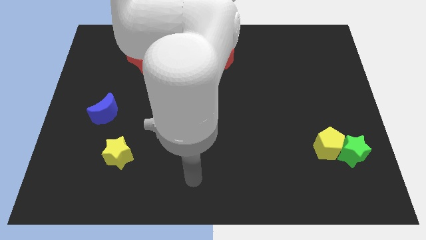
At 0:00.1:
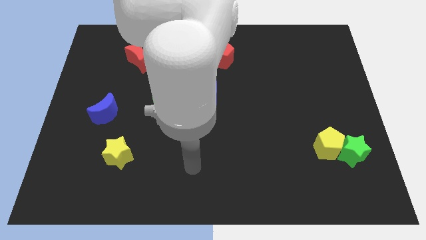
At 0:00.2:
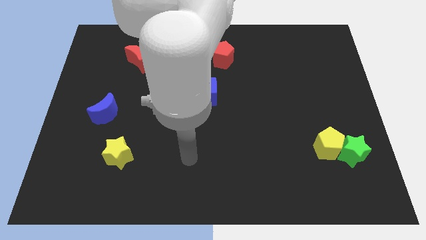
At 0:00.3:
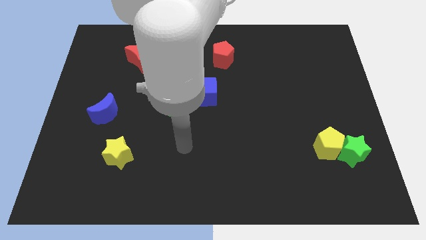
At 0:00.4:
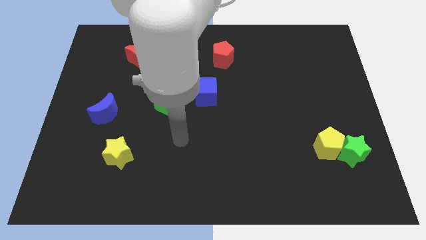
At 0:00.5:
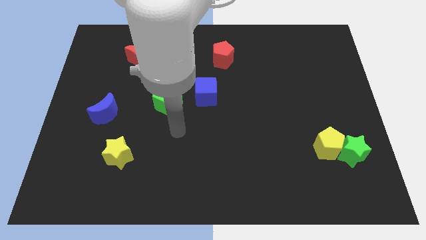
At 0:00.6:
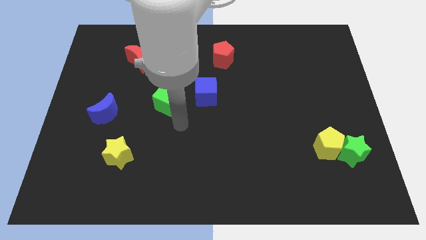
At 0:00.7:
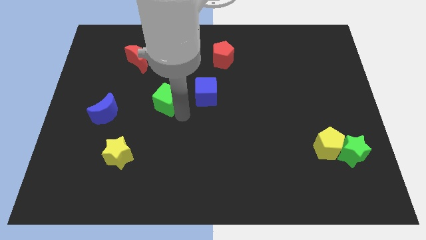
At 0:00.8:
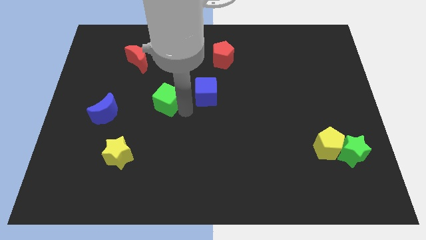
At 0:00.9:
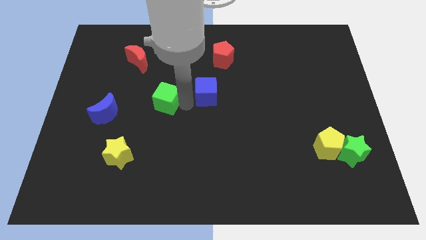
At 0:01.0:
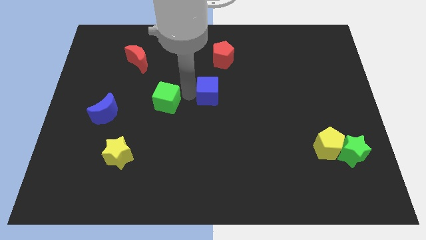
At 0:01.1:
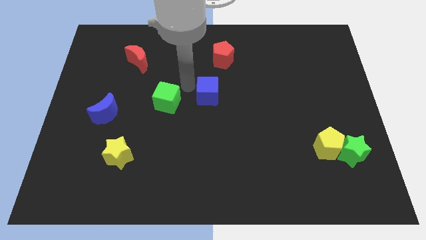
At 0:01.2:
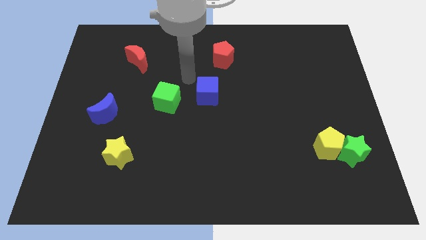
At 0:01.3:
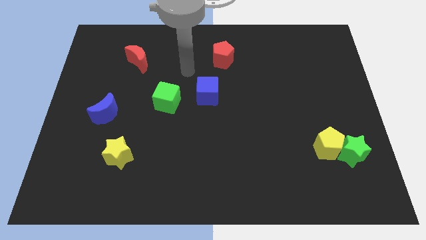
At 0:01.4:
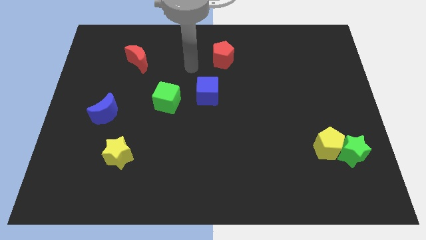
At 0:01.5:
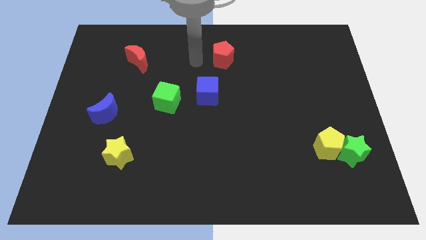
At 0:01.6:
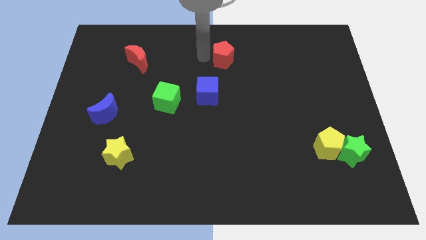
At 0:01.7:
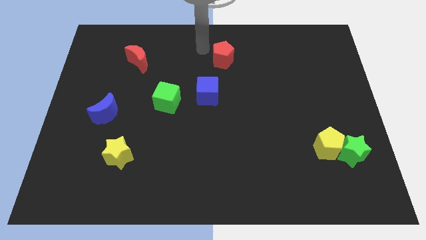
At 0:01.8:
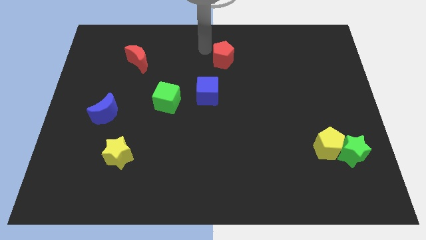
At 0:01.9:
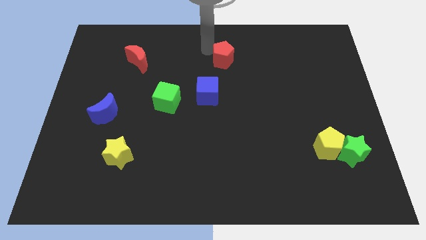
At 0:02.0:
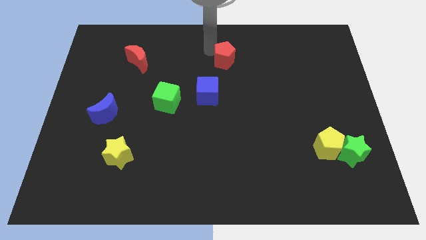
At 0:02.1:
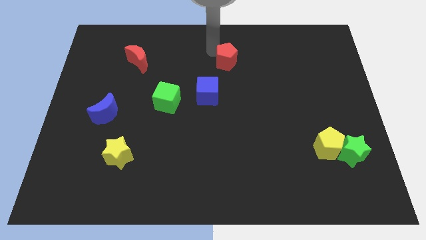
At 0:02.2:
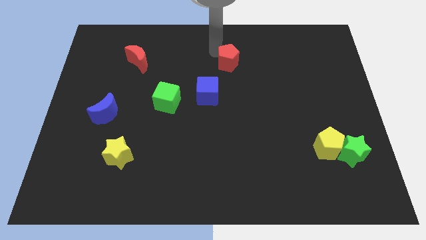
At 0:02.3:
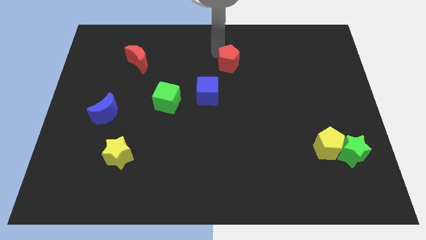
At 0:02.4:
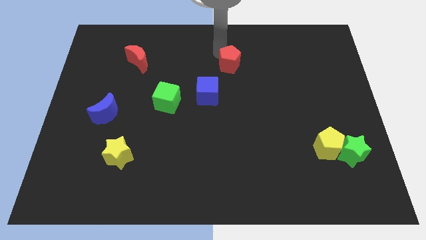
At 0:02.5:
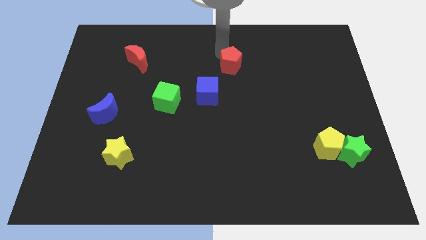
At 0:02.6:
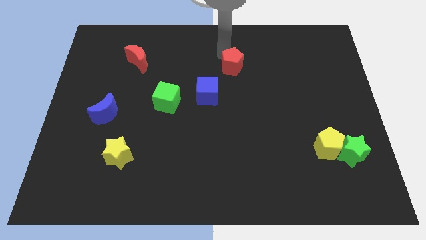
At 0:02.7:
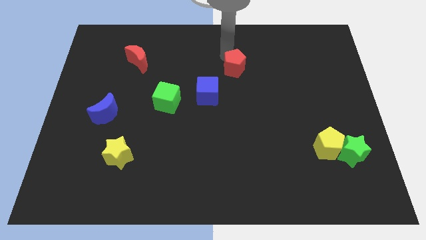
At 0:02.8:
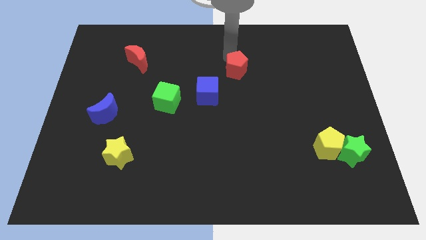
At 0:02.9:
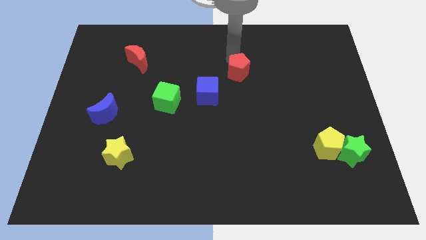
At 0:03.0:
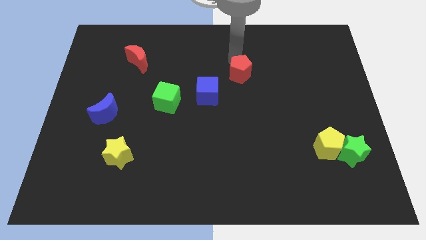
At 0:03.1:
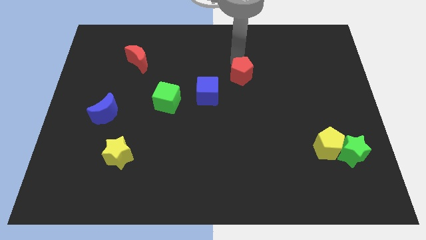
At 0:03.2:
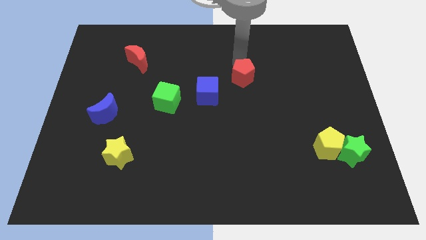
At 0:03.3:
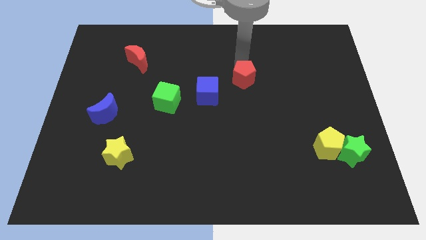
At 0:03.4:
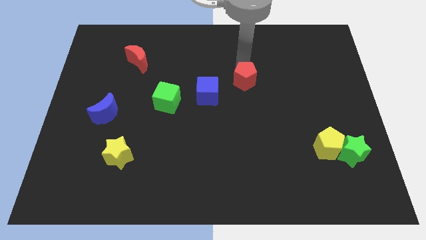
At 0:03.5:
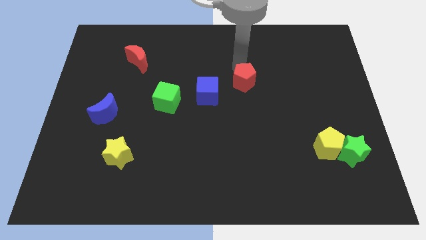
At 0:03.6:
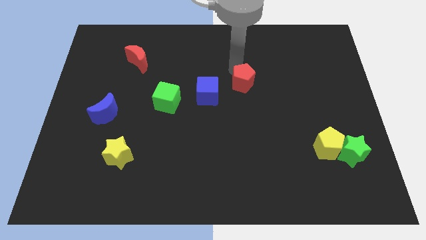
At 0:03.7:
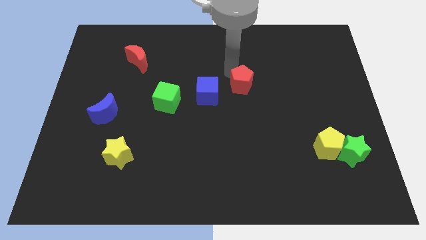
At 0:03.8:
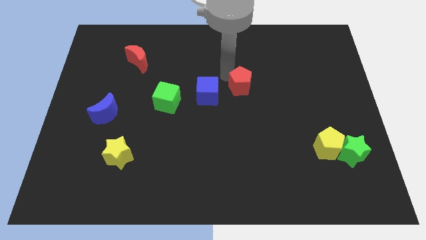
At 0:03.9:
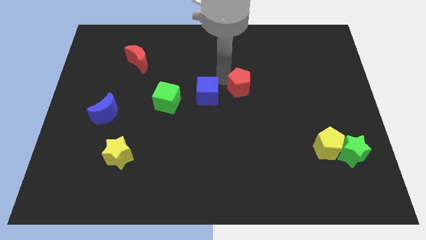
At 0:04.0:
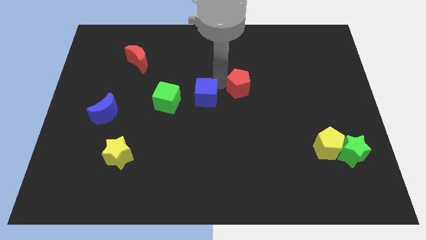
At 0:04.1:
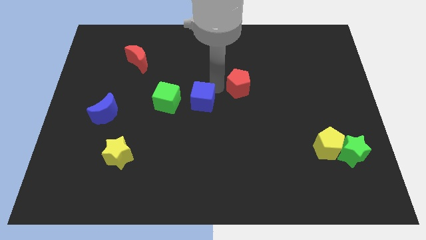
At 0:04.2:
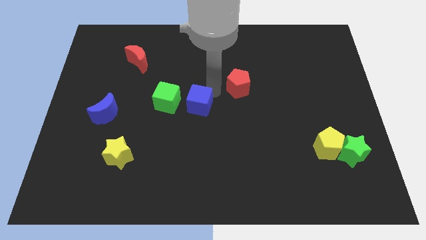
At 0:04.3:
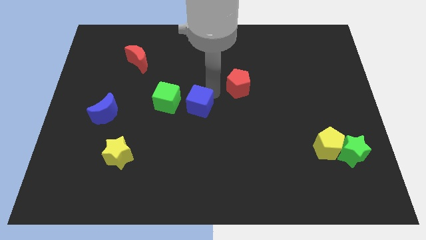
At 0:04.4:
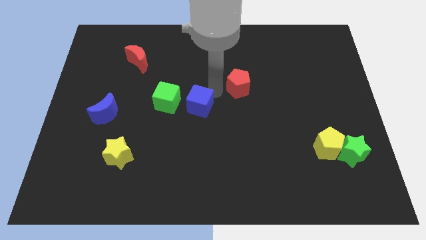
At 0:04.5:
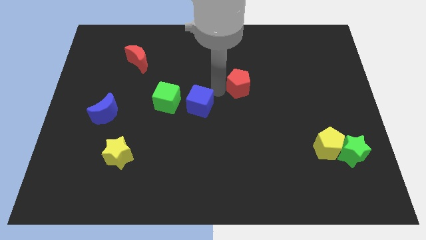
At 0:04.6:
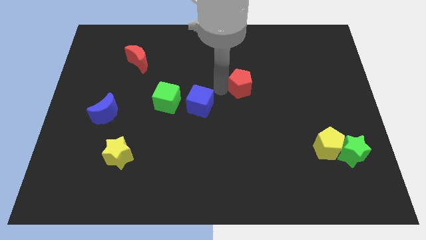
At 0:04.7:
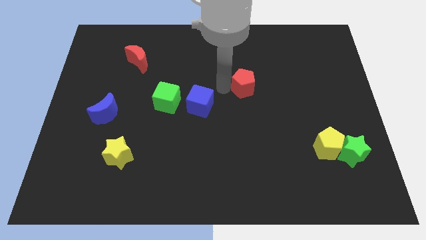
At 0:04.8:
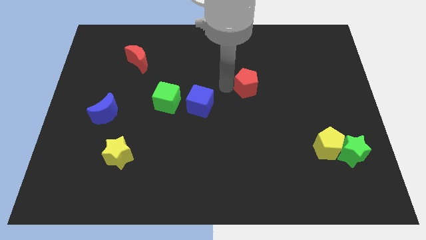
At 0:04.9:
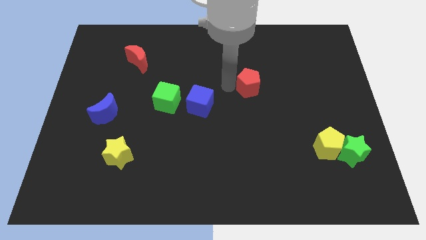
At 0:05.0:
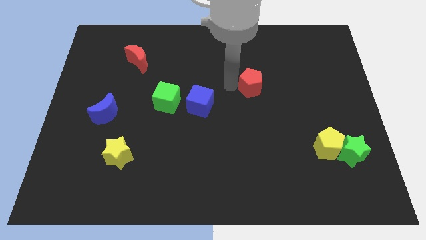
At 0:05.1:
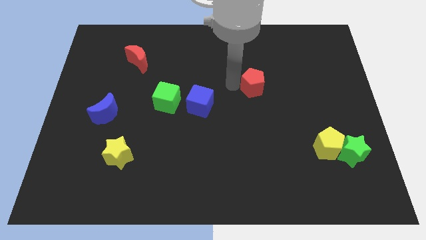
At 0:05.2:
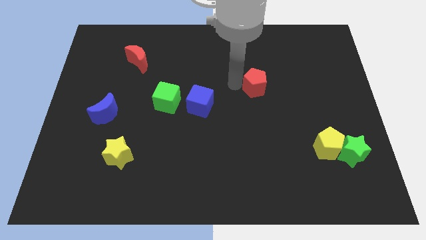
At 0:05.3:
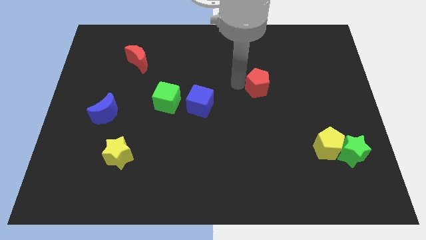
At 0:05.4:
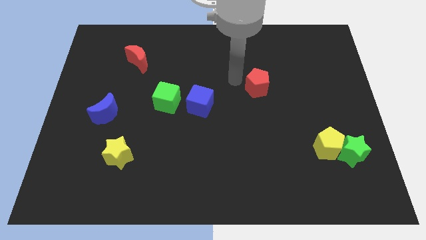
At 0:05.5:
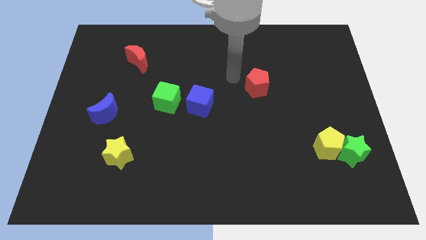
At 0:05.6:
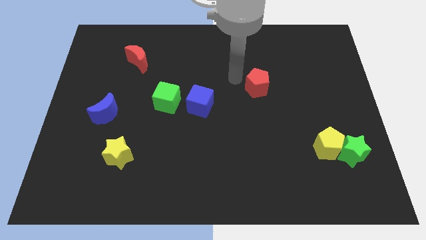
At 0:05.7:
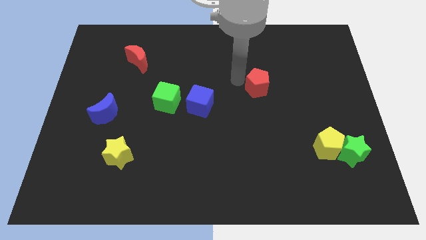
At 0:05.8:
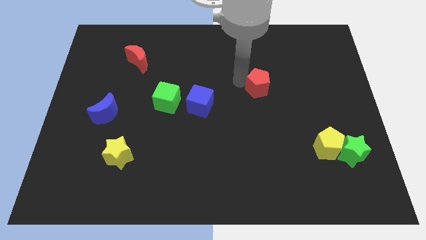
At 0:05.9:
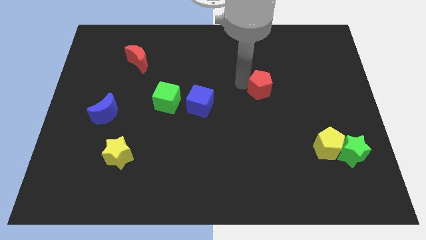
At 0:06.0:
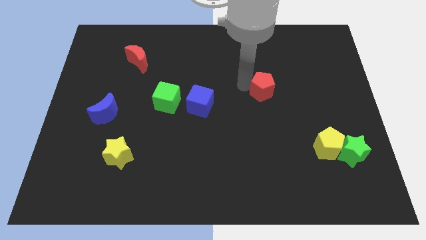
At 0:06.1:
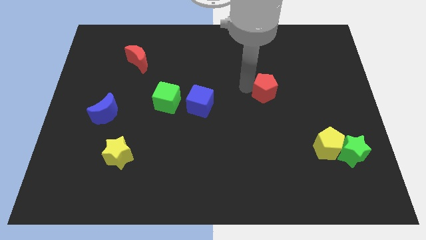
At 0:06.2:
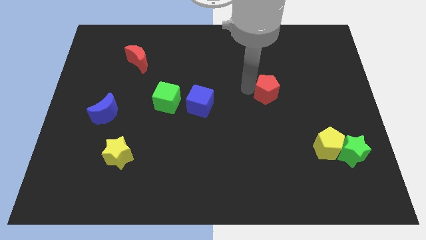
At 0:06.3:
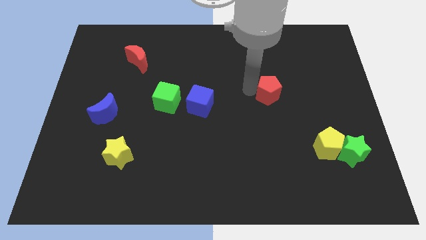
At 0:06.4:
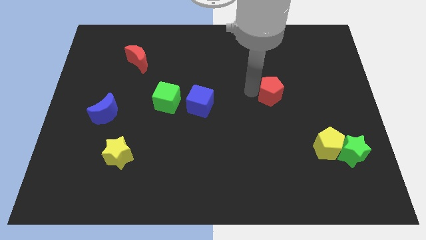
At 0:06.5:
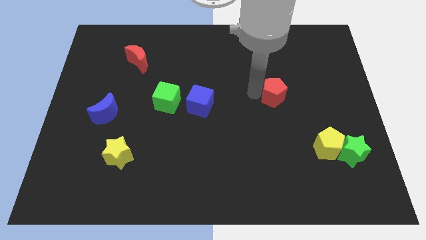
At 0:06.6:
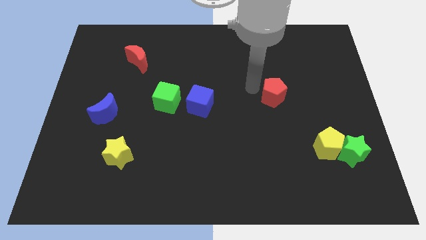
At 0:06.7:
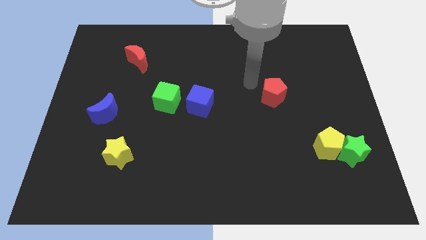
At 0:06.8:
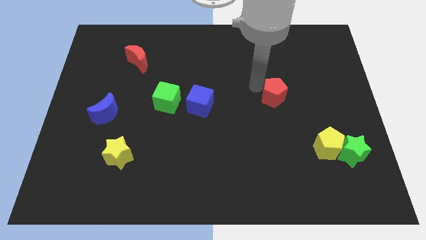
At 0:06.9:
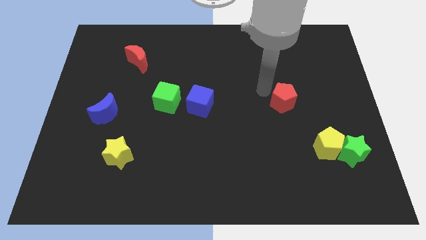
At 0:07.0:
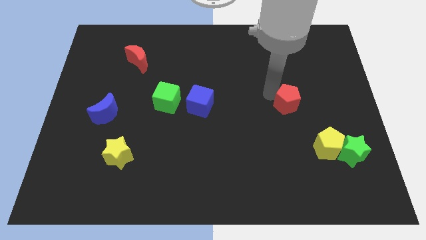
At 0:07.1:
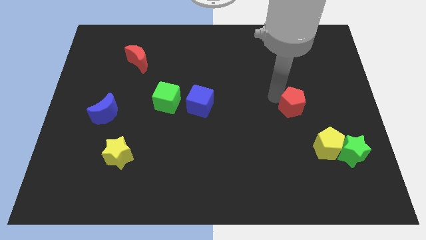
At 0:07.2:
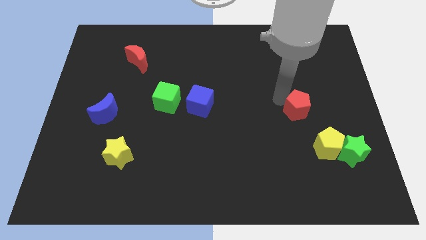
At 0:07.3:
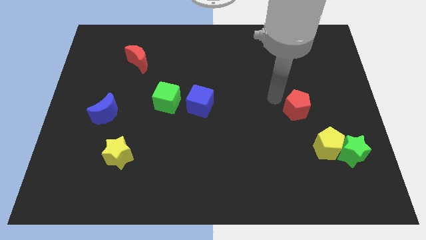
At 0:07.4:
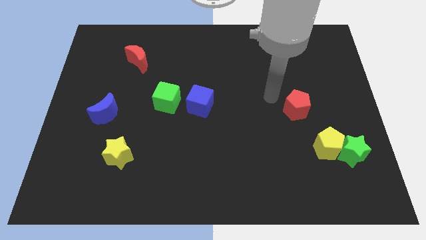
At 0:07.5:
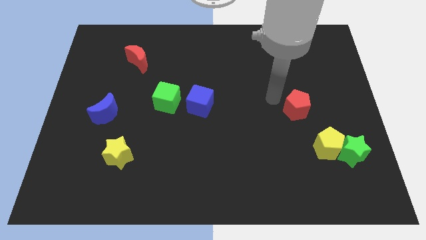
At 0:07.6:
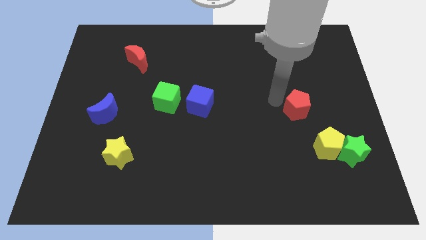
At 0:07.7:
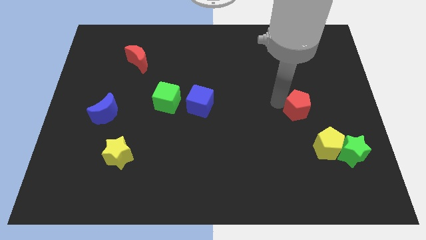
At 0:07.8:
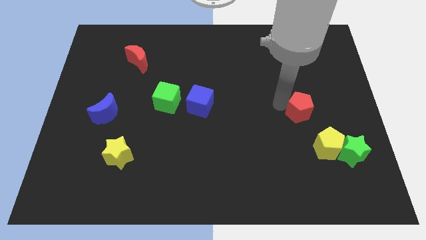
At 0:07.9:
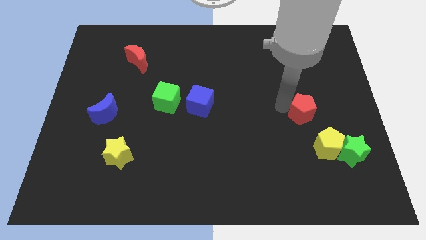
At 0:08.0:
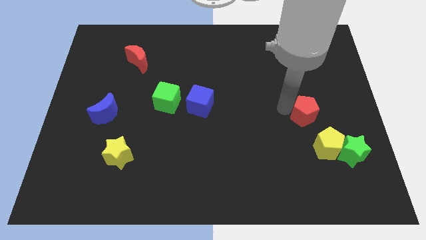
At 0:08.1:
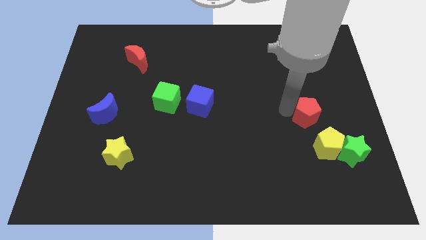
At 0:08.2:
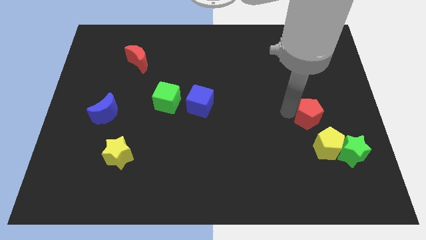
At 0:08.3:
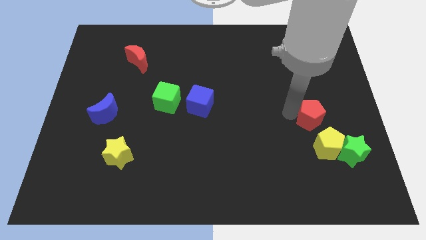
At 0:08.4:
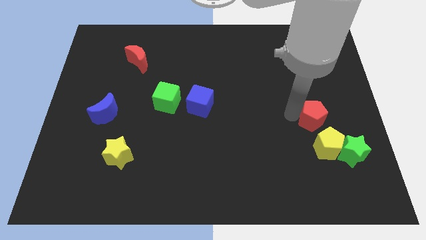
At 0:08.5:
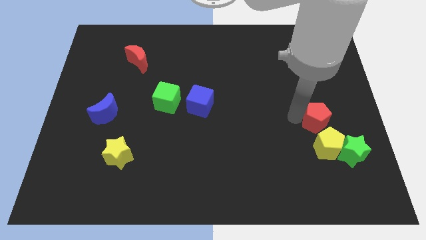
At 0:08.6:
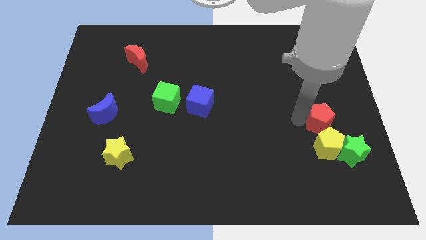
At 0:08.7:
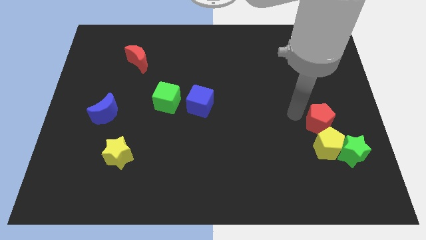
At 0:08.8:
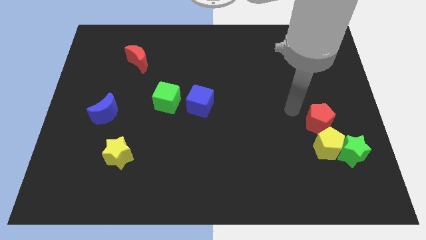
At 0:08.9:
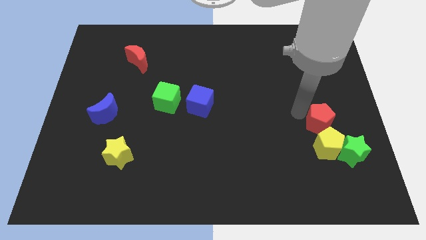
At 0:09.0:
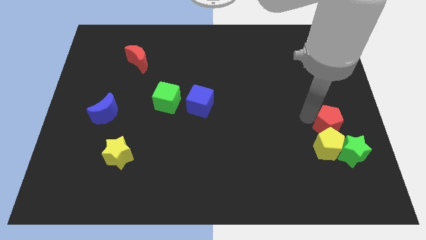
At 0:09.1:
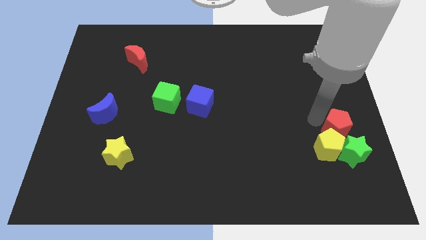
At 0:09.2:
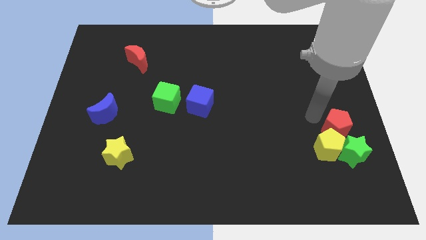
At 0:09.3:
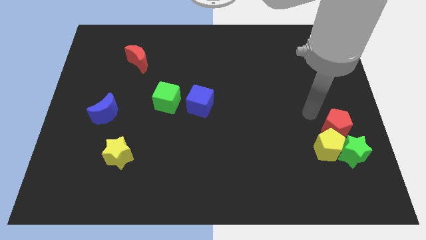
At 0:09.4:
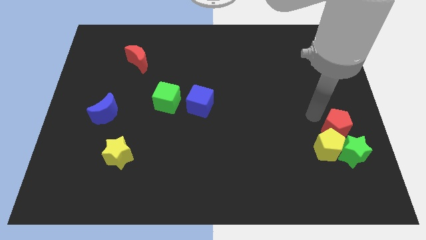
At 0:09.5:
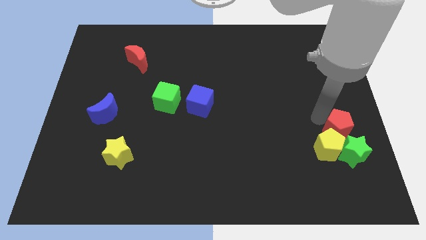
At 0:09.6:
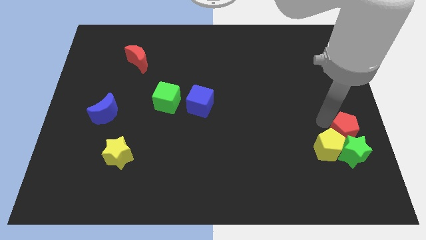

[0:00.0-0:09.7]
move the red pentagon to the green star
